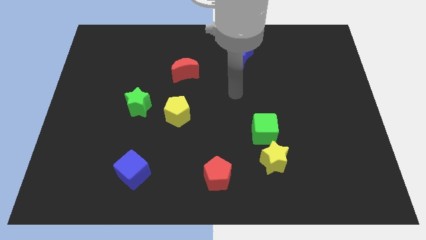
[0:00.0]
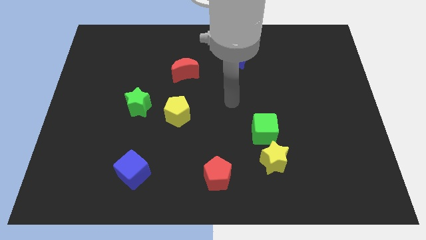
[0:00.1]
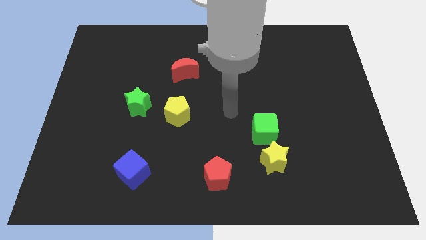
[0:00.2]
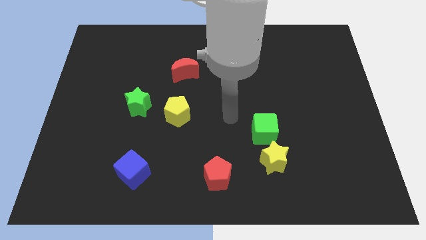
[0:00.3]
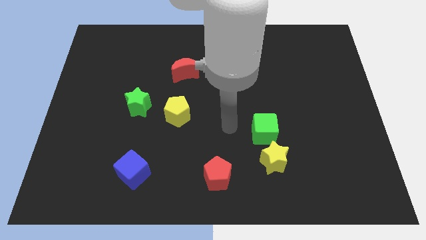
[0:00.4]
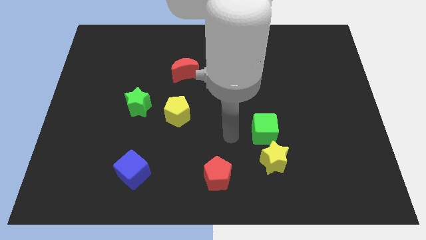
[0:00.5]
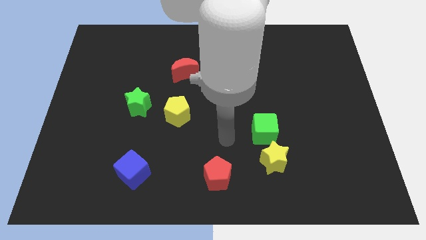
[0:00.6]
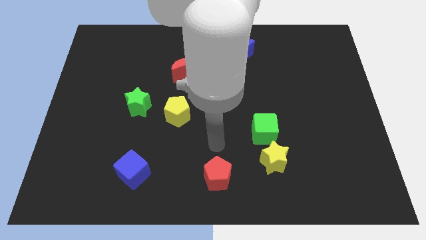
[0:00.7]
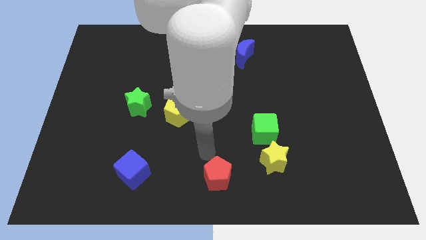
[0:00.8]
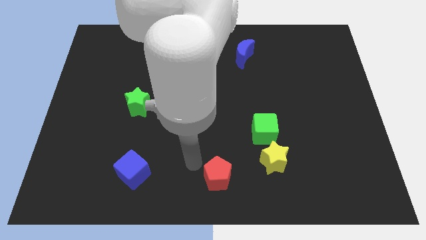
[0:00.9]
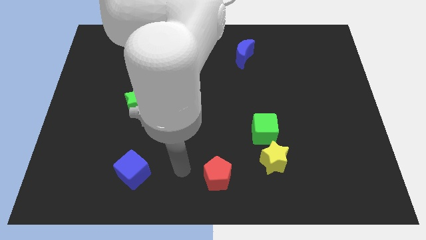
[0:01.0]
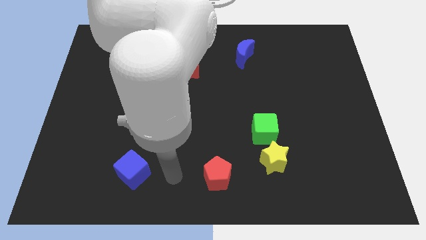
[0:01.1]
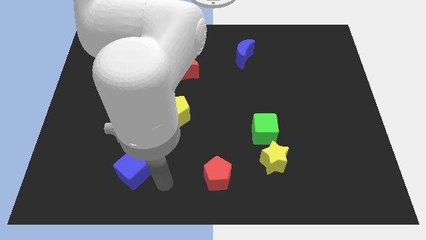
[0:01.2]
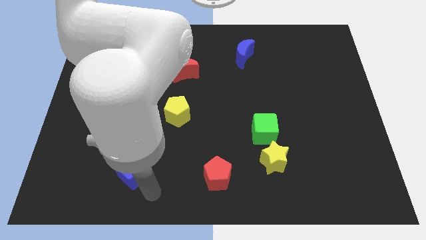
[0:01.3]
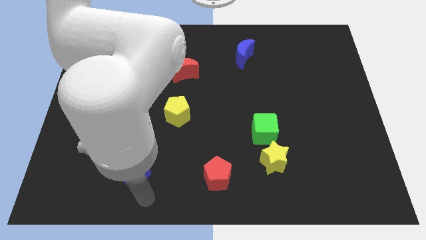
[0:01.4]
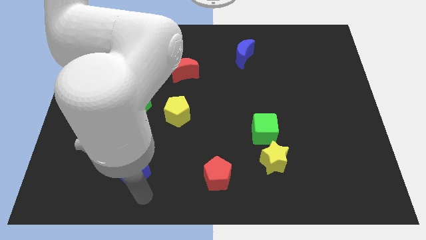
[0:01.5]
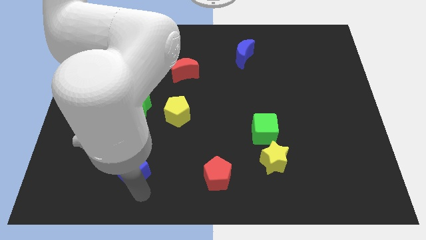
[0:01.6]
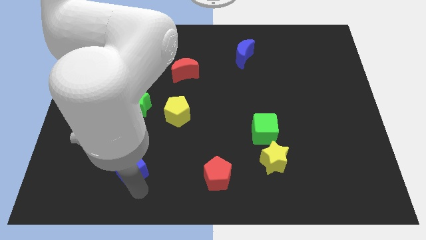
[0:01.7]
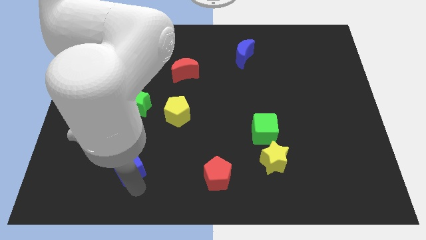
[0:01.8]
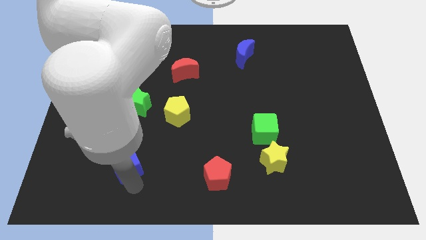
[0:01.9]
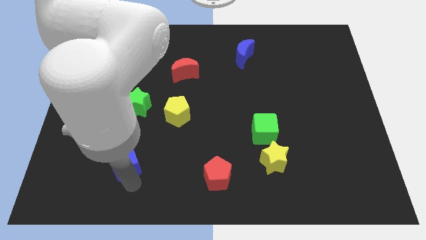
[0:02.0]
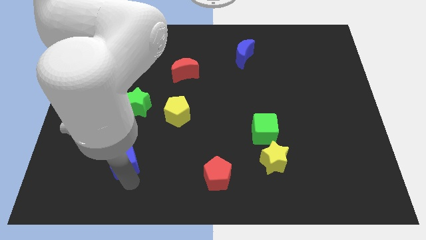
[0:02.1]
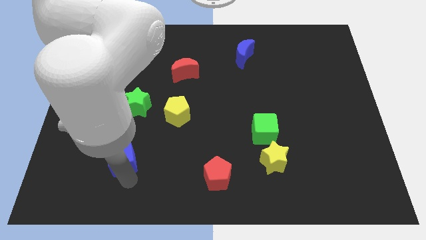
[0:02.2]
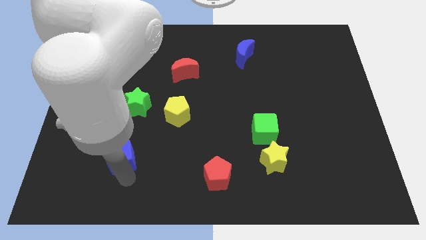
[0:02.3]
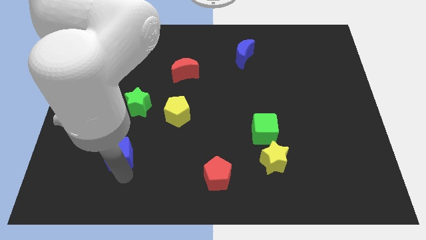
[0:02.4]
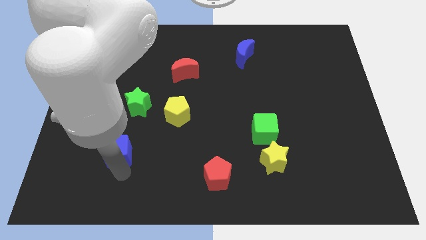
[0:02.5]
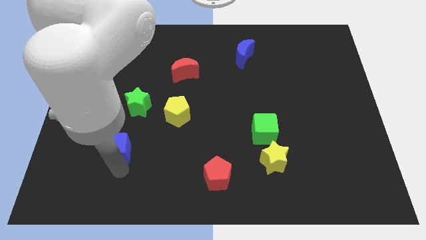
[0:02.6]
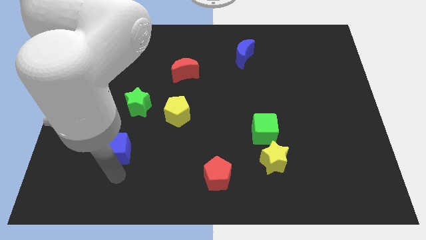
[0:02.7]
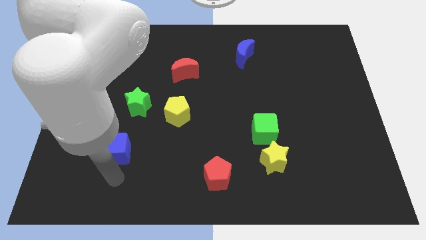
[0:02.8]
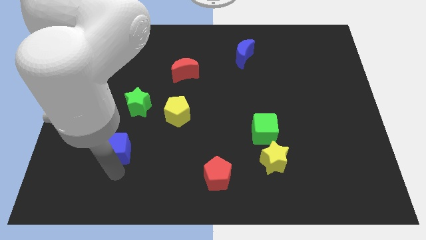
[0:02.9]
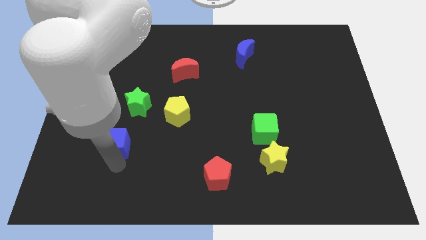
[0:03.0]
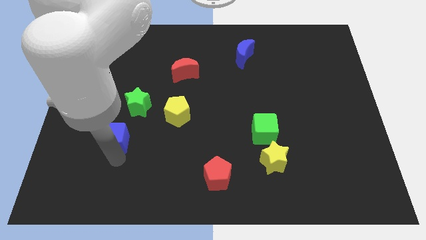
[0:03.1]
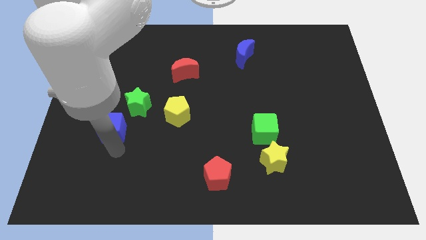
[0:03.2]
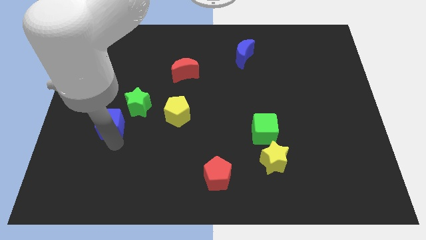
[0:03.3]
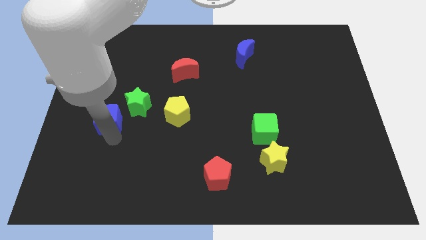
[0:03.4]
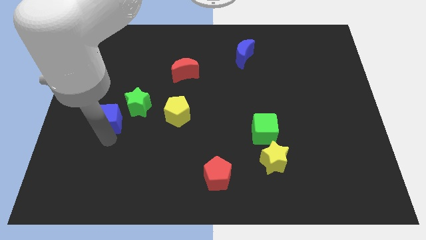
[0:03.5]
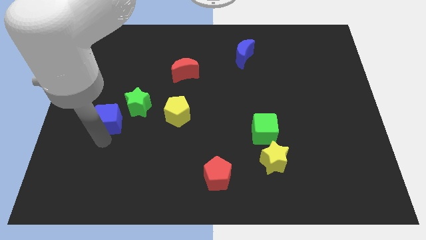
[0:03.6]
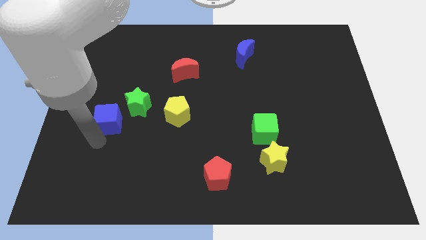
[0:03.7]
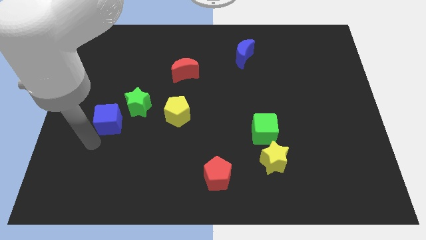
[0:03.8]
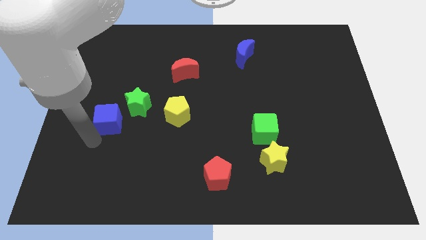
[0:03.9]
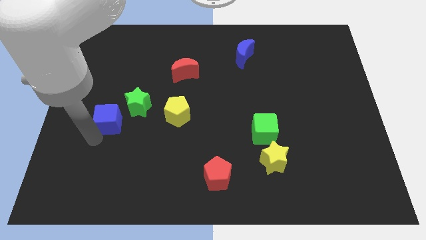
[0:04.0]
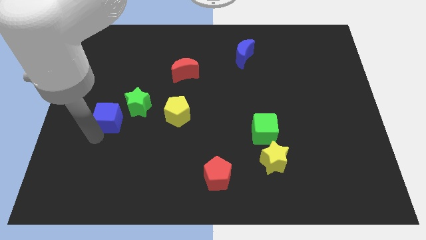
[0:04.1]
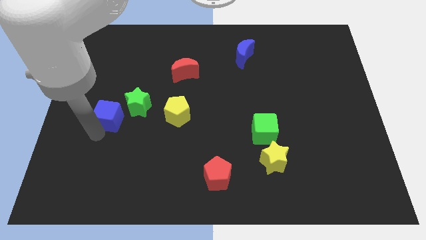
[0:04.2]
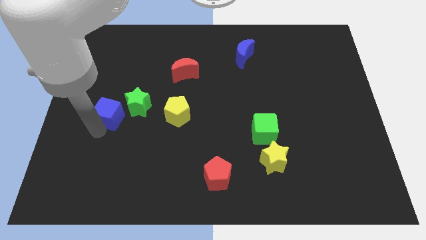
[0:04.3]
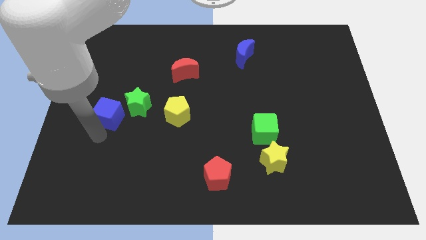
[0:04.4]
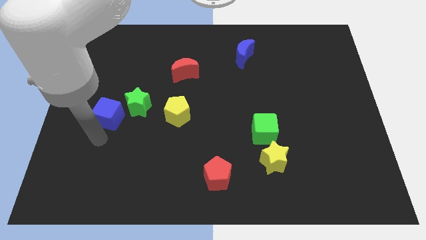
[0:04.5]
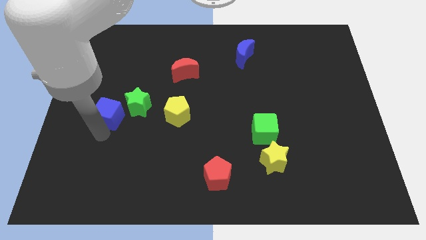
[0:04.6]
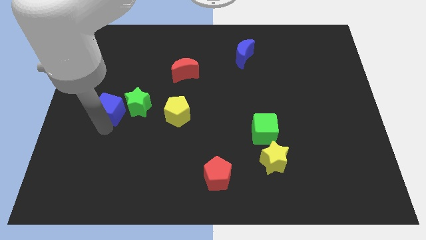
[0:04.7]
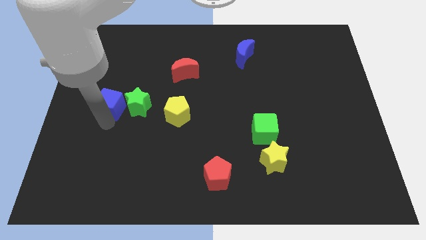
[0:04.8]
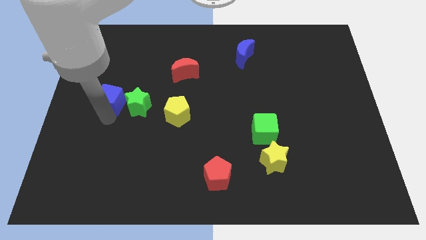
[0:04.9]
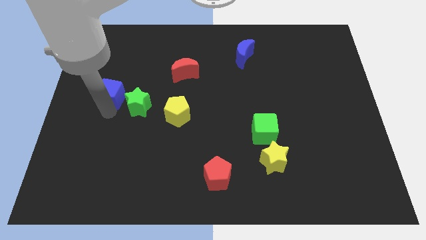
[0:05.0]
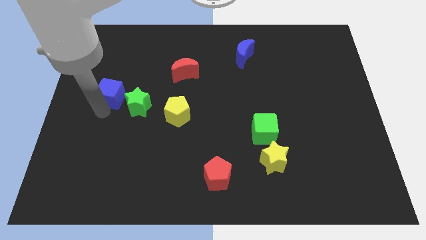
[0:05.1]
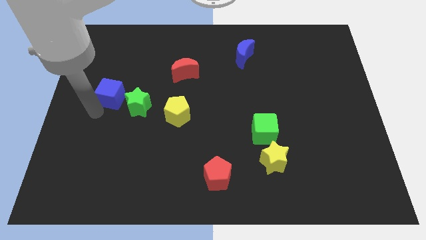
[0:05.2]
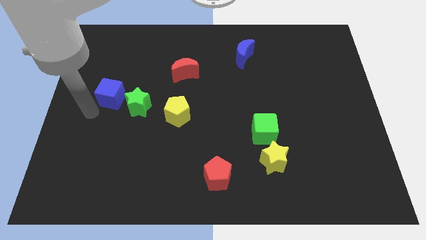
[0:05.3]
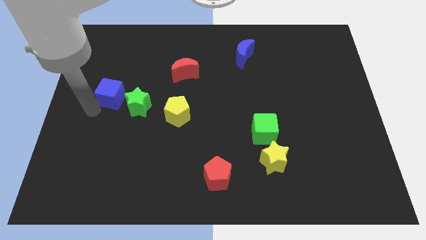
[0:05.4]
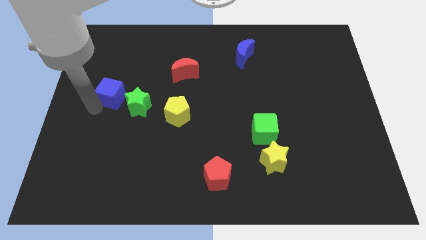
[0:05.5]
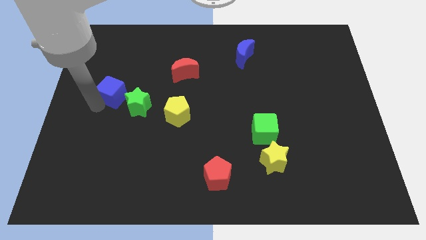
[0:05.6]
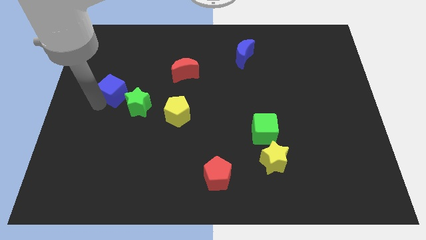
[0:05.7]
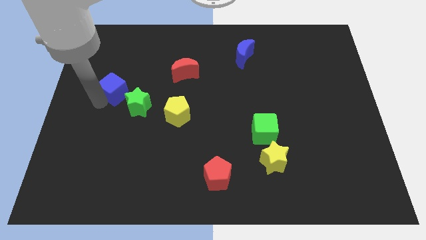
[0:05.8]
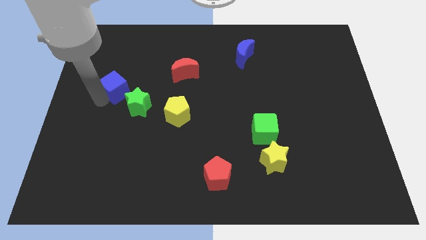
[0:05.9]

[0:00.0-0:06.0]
slide the blue cube upwards

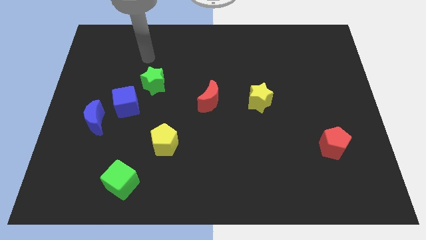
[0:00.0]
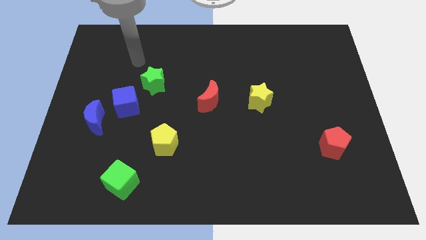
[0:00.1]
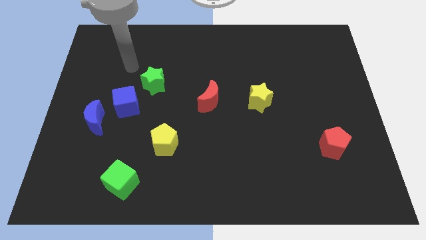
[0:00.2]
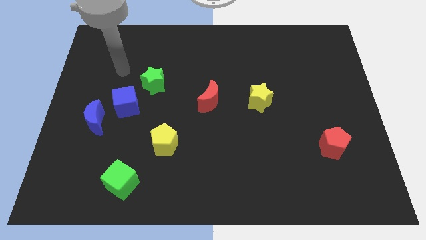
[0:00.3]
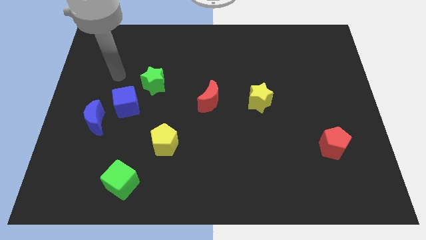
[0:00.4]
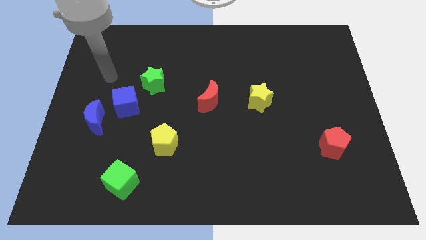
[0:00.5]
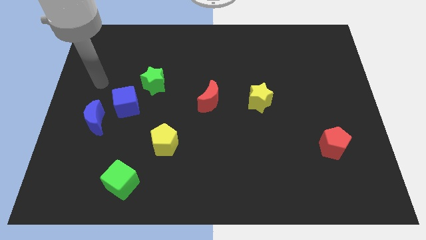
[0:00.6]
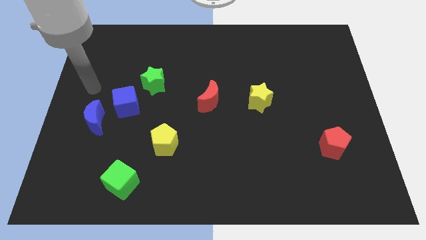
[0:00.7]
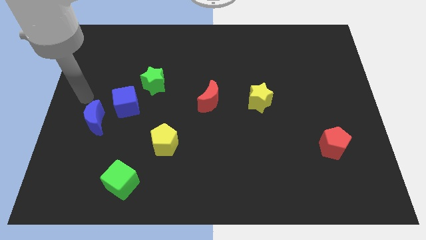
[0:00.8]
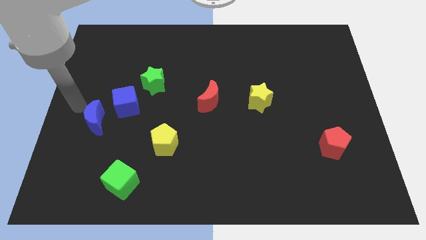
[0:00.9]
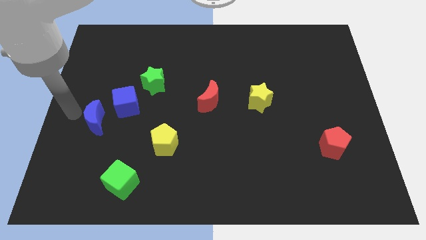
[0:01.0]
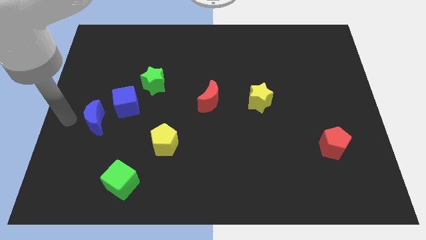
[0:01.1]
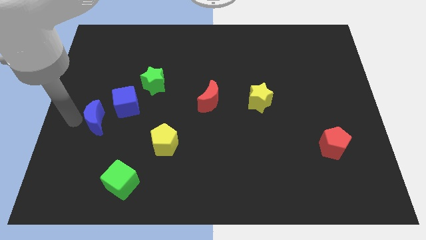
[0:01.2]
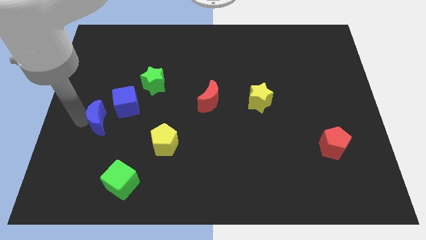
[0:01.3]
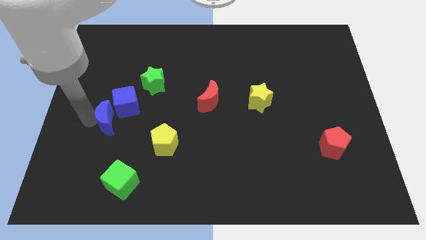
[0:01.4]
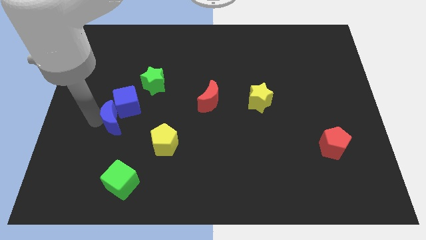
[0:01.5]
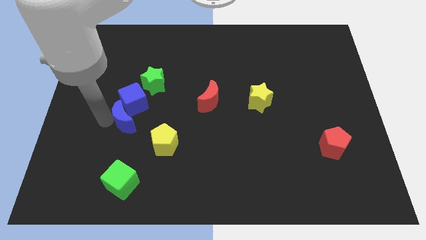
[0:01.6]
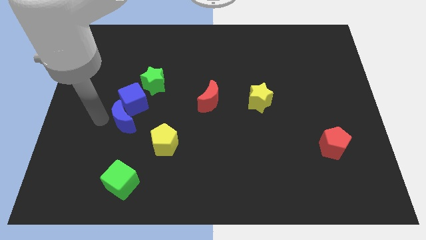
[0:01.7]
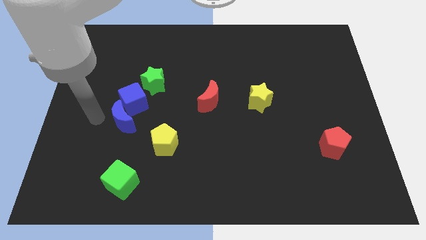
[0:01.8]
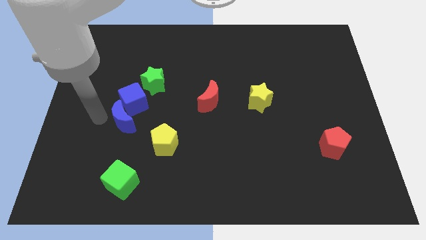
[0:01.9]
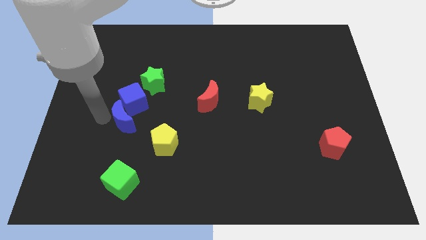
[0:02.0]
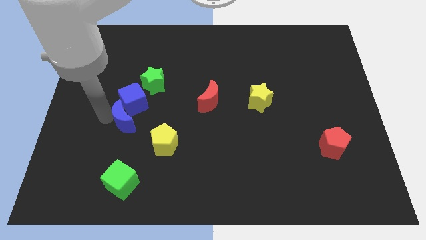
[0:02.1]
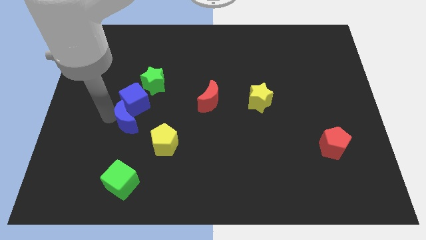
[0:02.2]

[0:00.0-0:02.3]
slightly push the blue moon to the right
